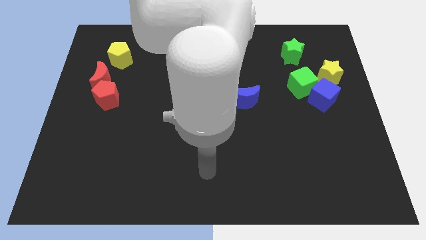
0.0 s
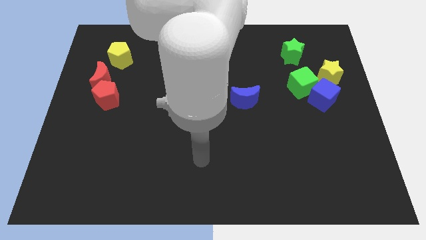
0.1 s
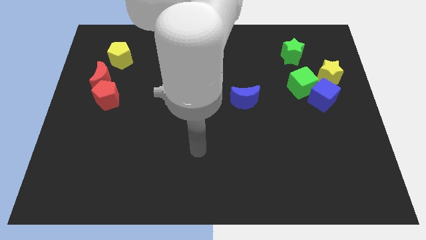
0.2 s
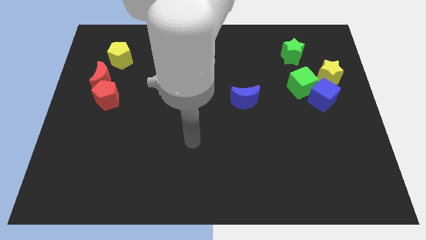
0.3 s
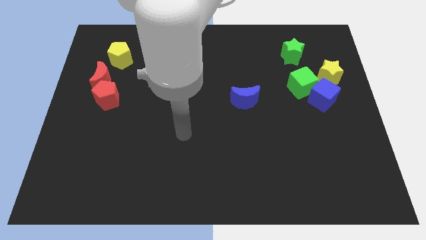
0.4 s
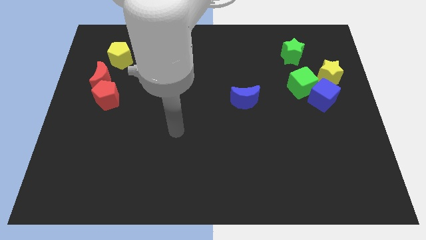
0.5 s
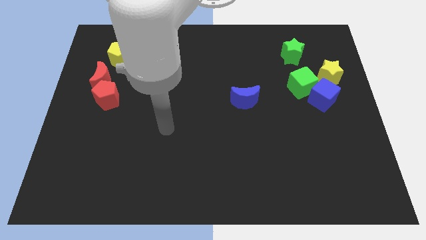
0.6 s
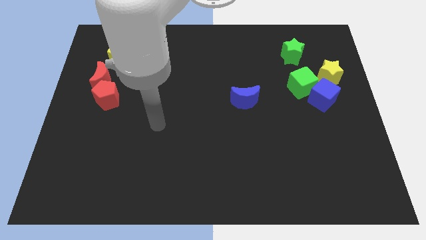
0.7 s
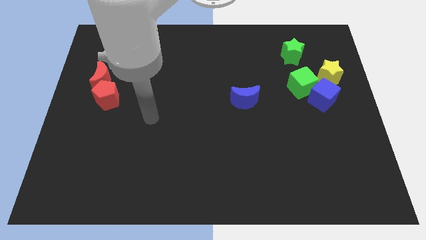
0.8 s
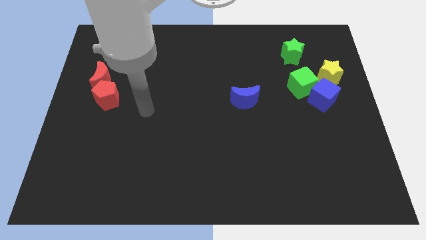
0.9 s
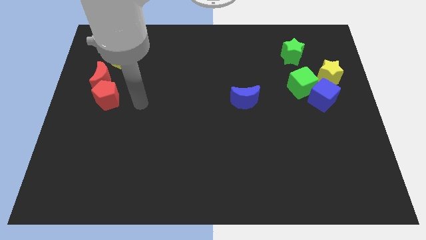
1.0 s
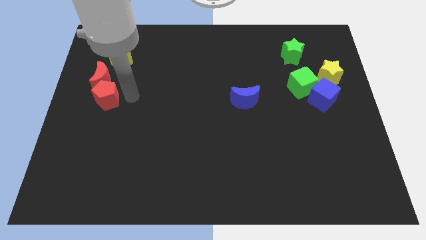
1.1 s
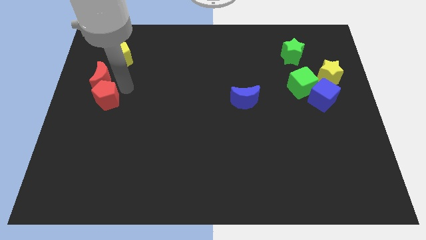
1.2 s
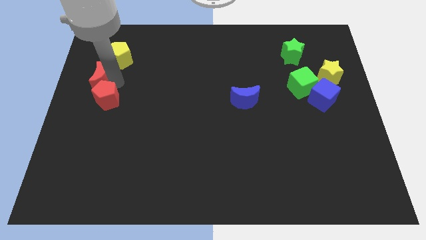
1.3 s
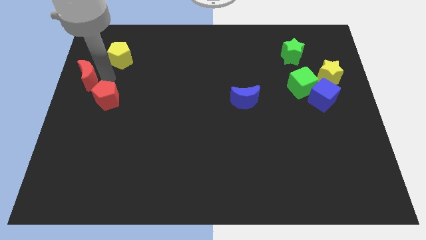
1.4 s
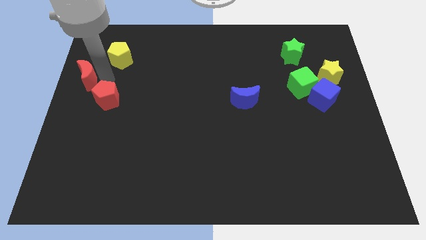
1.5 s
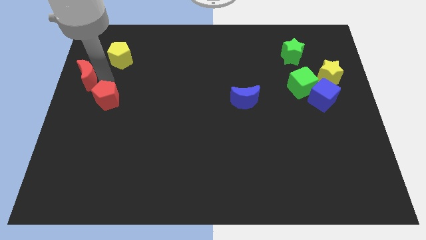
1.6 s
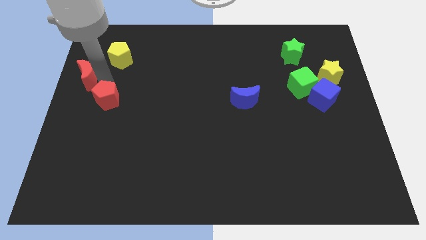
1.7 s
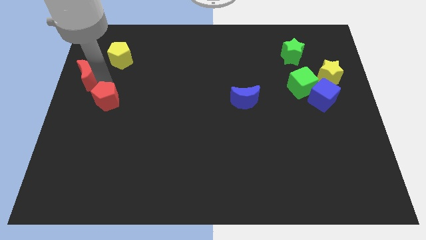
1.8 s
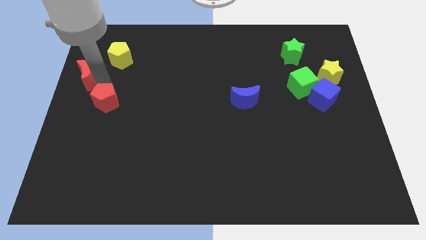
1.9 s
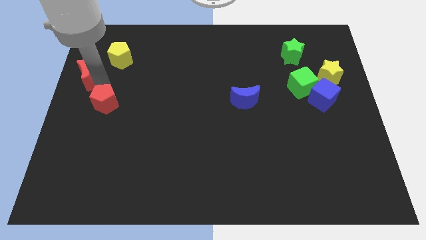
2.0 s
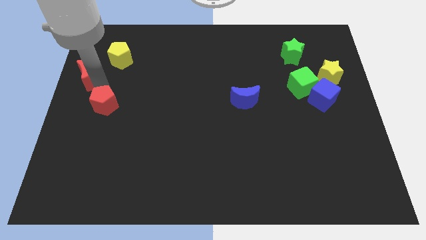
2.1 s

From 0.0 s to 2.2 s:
pull the red pentagon apart from the red moon

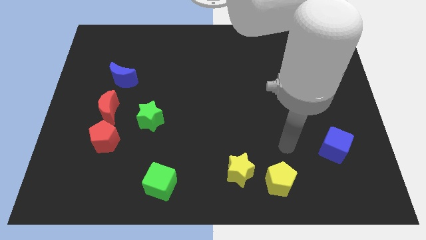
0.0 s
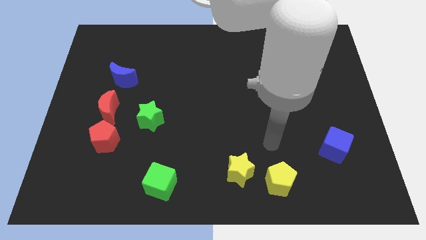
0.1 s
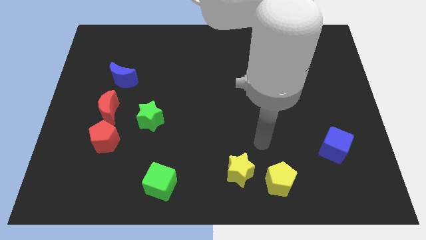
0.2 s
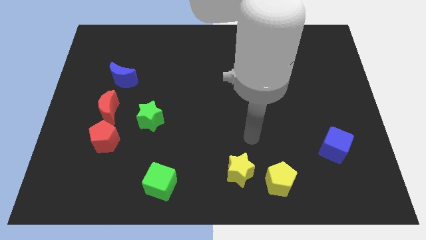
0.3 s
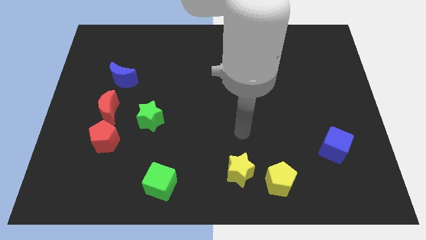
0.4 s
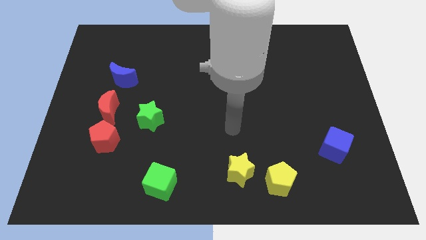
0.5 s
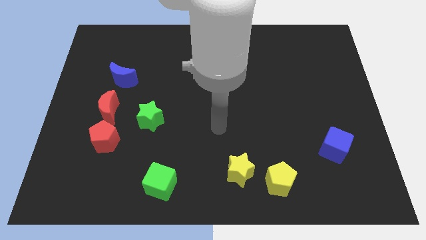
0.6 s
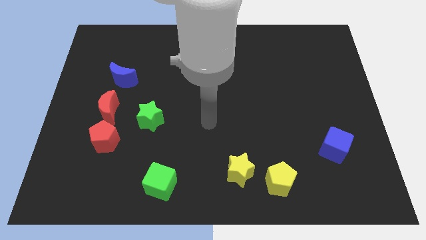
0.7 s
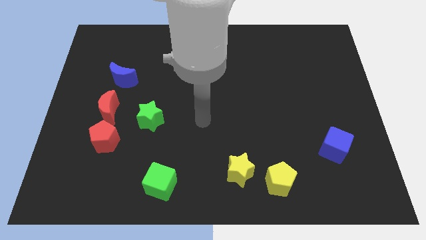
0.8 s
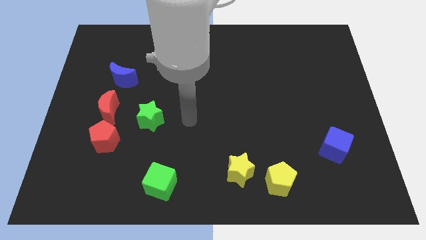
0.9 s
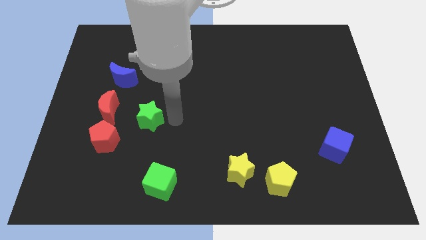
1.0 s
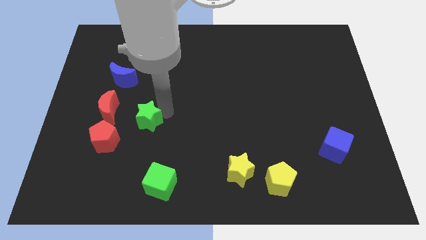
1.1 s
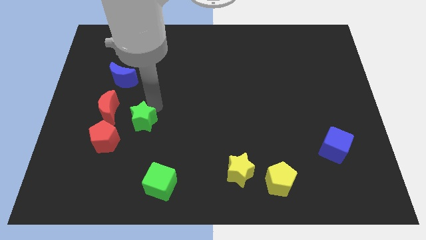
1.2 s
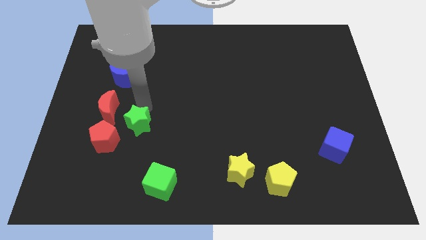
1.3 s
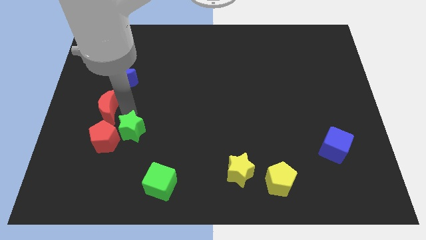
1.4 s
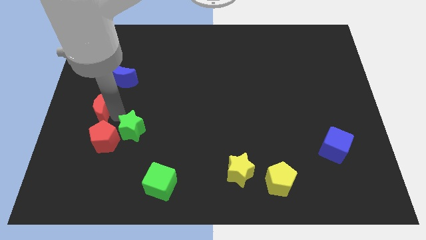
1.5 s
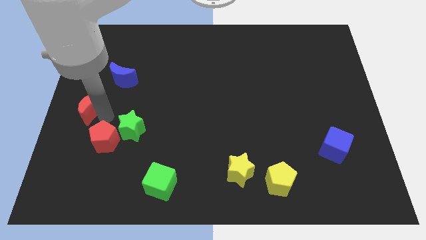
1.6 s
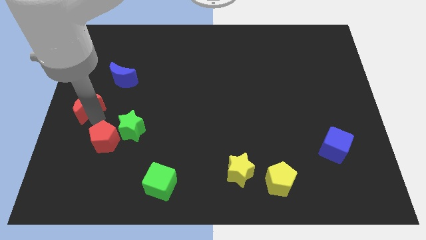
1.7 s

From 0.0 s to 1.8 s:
move the red pentagon away from the red moon

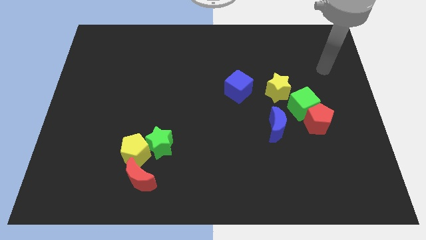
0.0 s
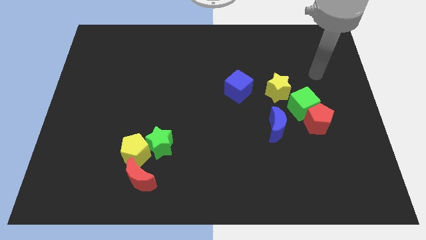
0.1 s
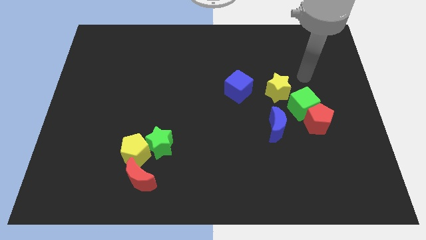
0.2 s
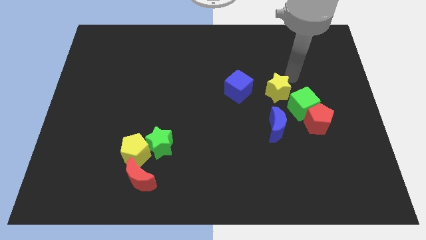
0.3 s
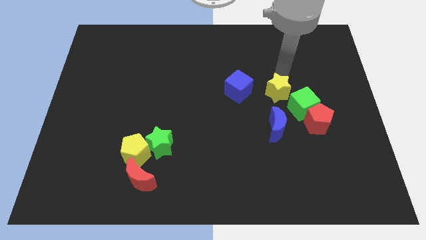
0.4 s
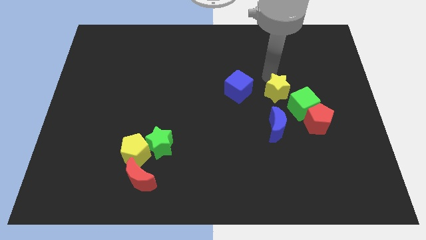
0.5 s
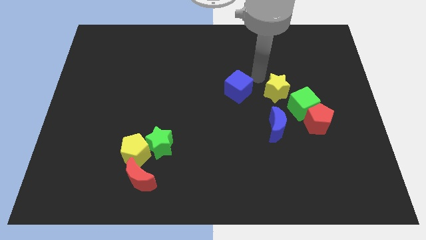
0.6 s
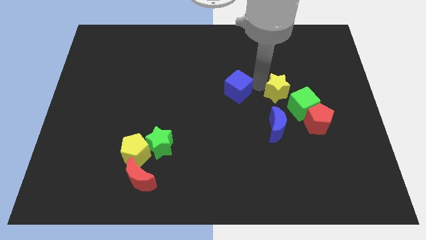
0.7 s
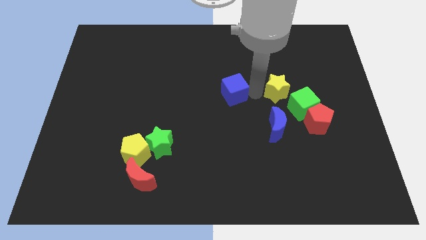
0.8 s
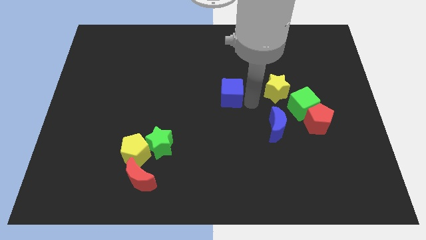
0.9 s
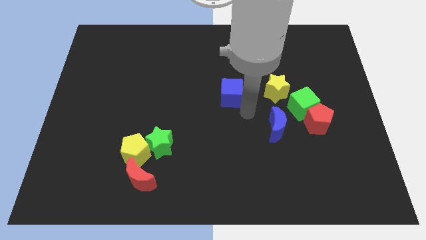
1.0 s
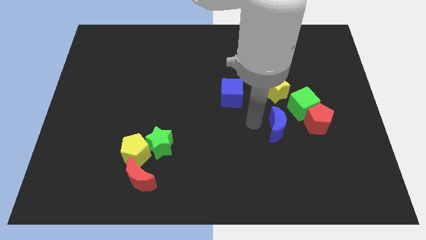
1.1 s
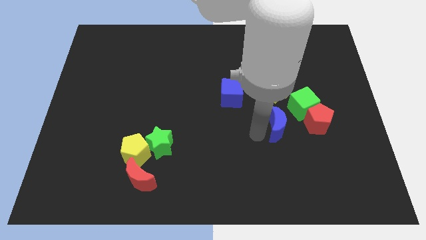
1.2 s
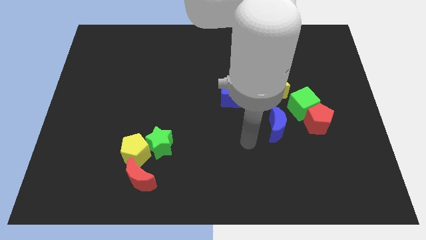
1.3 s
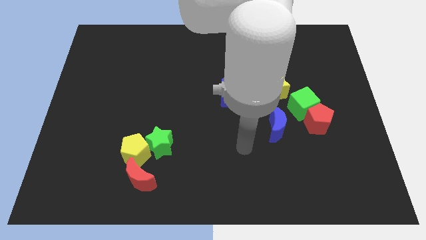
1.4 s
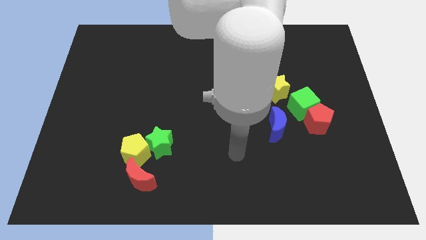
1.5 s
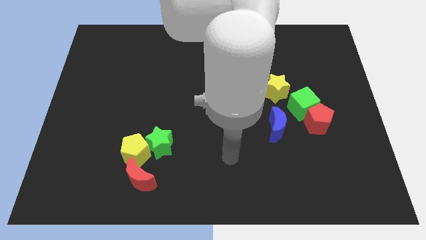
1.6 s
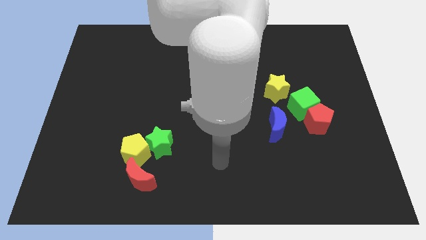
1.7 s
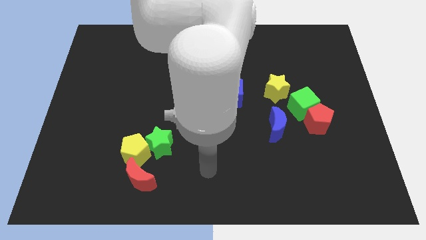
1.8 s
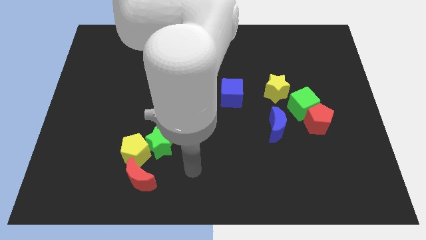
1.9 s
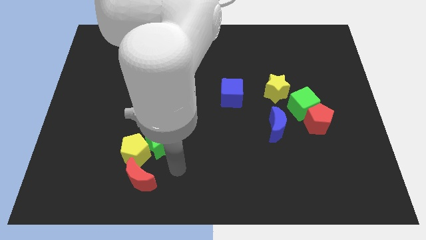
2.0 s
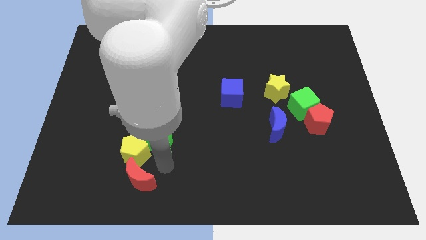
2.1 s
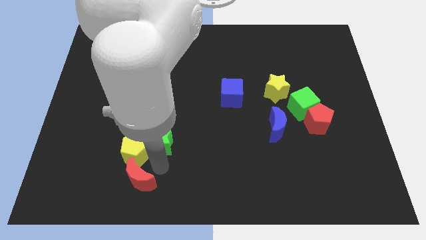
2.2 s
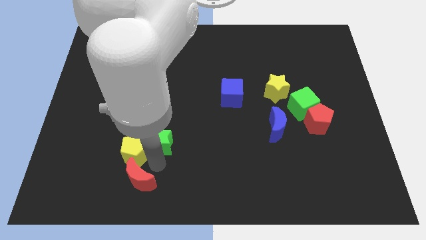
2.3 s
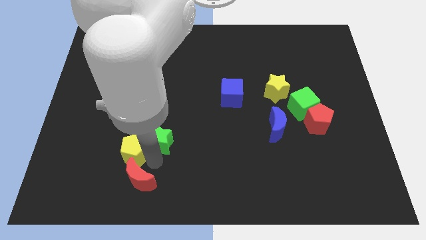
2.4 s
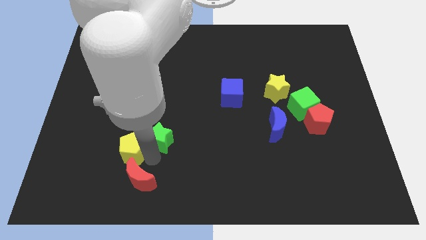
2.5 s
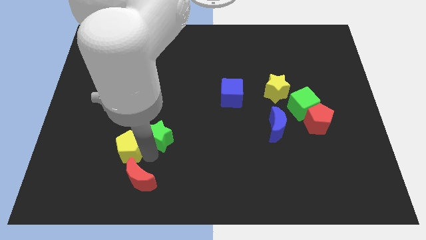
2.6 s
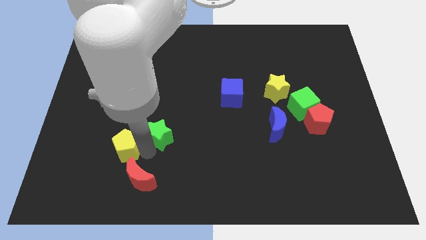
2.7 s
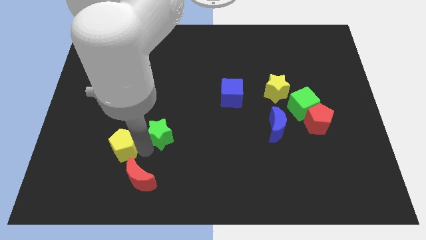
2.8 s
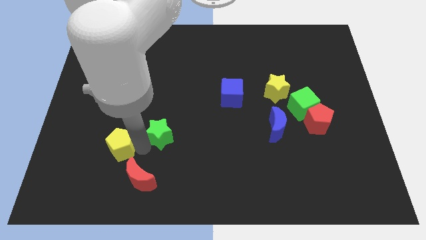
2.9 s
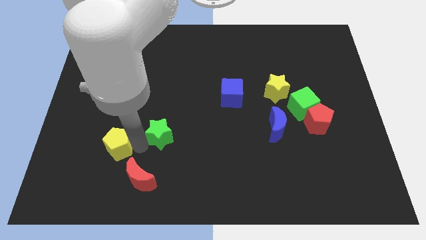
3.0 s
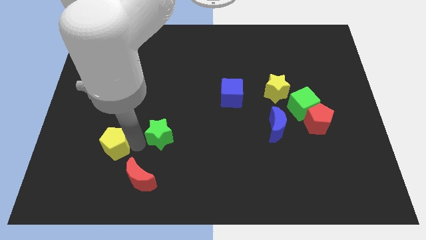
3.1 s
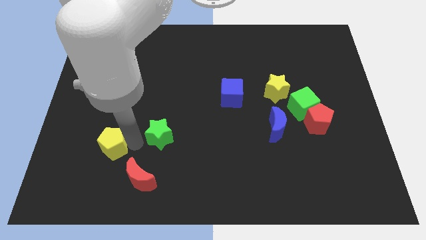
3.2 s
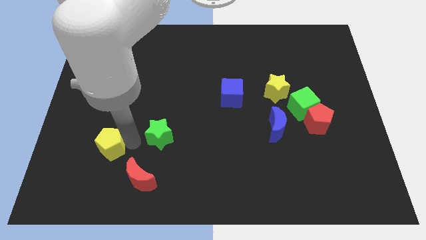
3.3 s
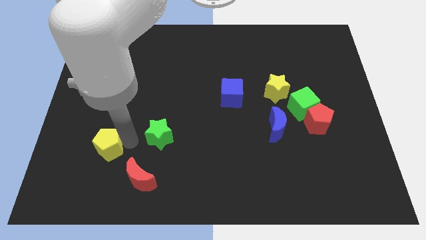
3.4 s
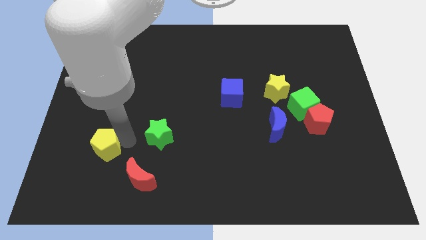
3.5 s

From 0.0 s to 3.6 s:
pull the yellow pentagon apart from the green star and red moon

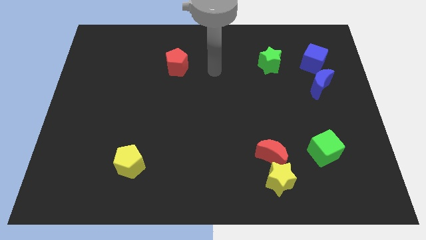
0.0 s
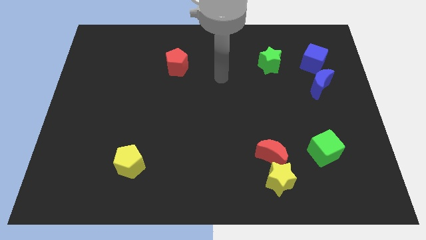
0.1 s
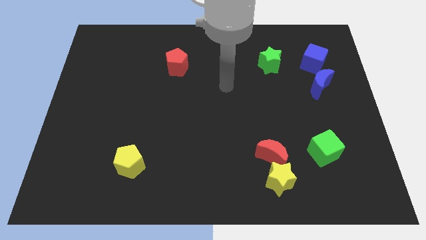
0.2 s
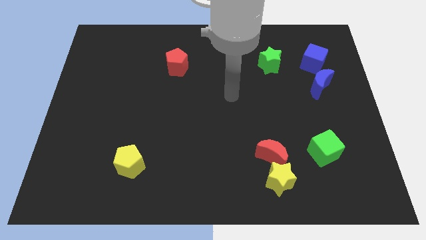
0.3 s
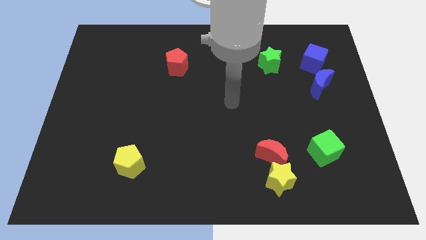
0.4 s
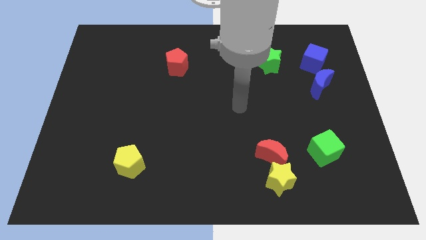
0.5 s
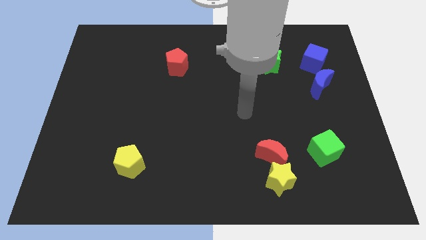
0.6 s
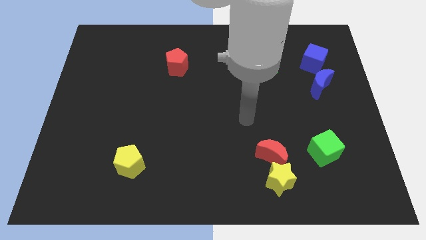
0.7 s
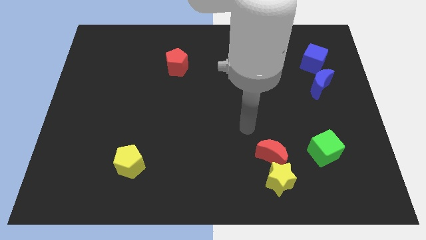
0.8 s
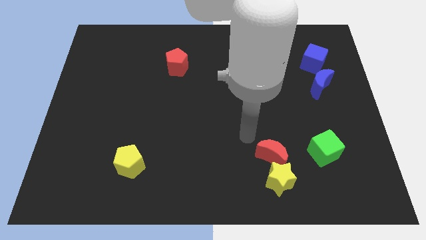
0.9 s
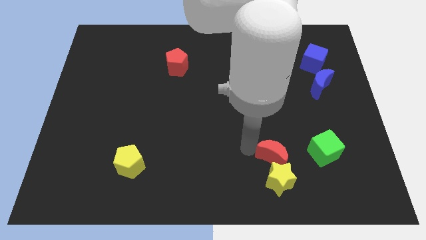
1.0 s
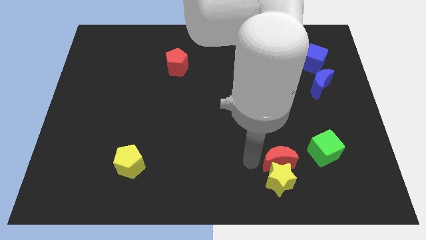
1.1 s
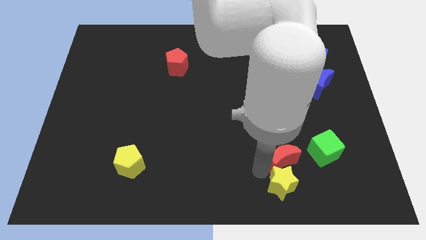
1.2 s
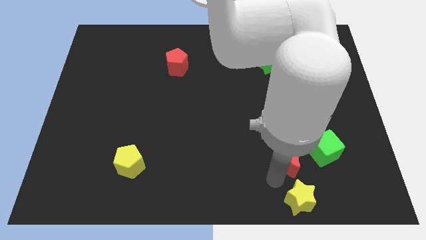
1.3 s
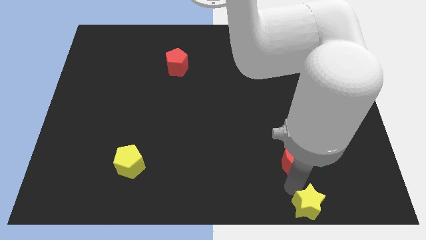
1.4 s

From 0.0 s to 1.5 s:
separate the red moon from the yellow star

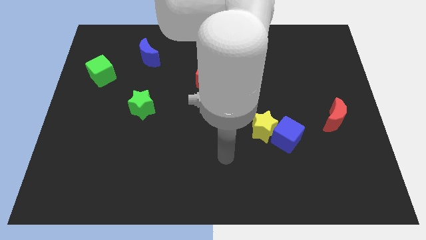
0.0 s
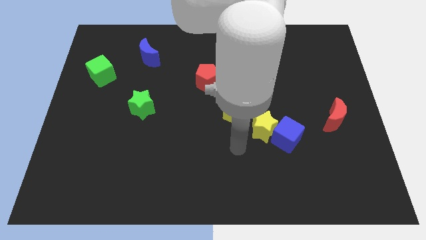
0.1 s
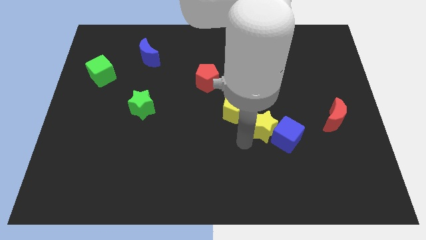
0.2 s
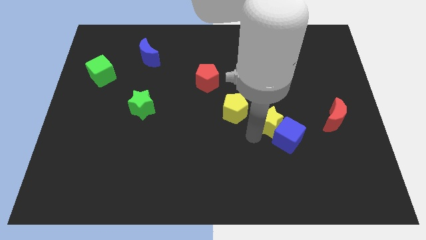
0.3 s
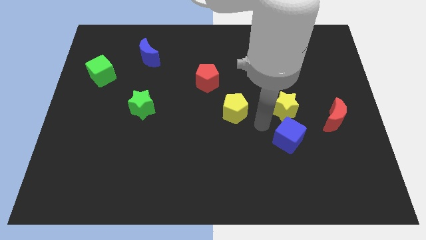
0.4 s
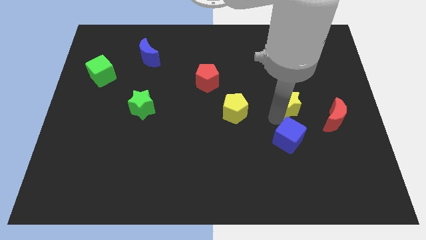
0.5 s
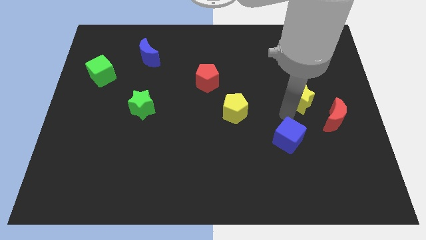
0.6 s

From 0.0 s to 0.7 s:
separate the blue cube from the yellow star
